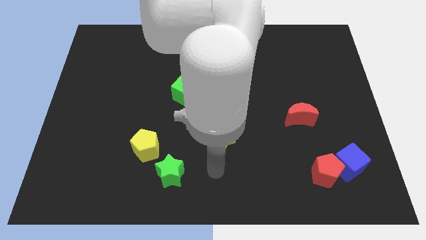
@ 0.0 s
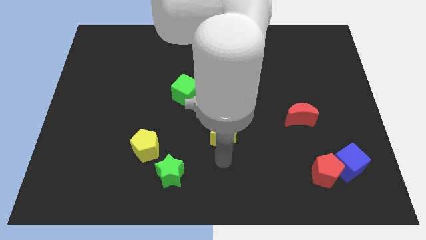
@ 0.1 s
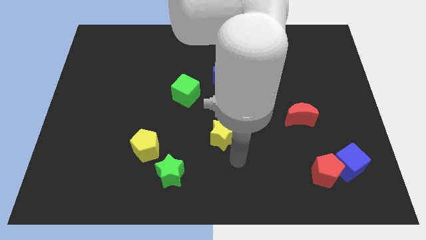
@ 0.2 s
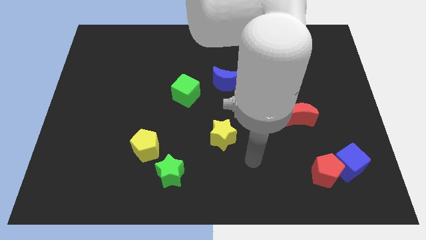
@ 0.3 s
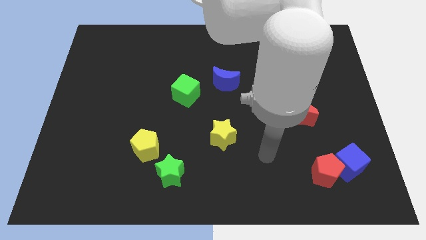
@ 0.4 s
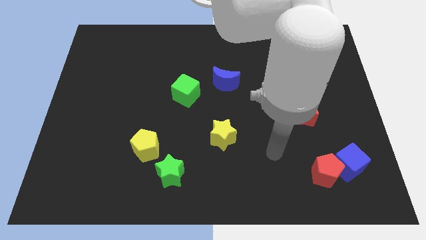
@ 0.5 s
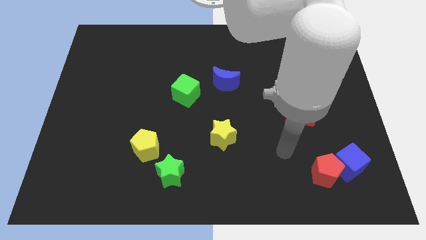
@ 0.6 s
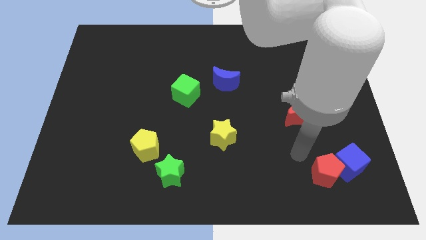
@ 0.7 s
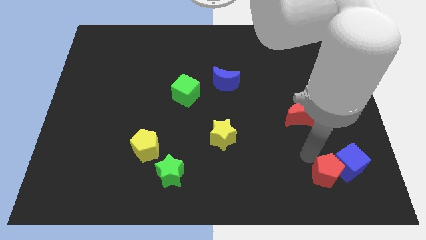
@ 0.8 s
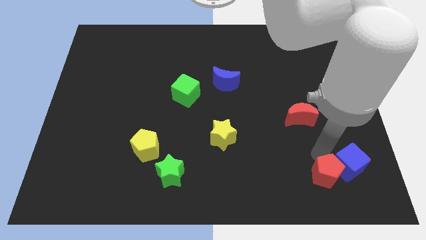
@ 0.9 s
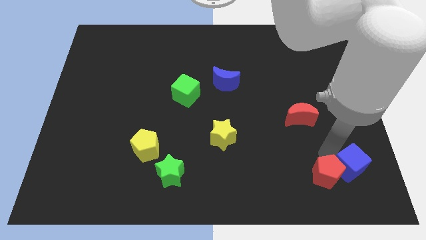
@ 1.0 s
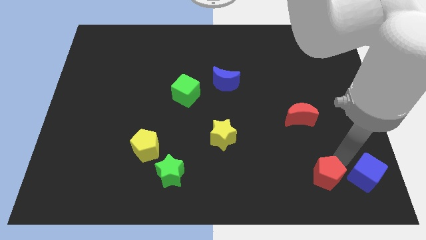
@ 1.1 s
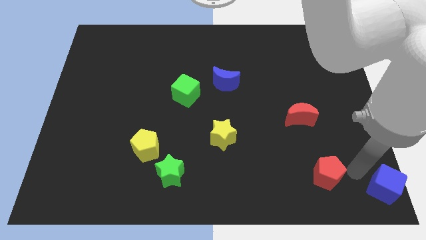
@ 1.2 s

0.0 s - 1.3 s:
separate the red pentagon from the blue cube

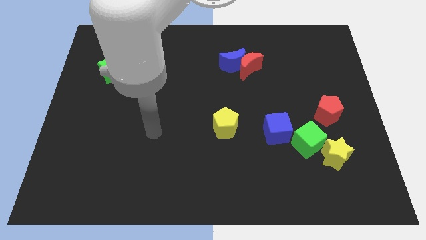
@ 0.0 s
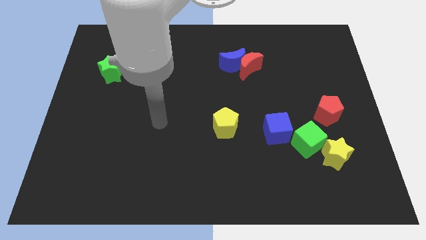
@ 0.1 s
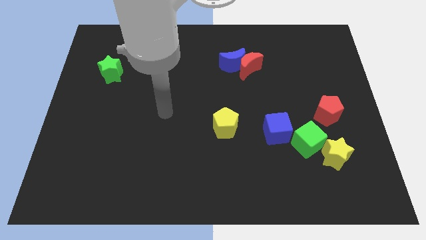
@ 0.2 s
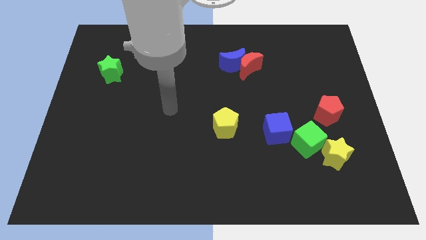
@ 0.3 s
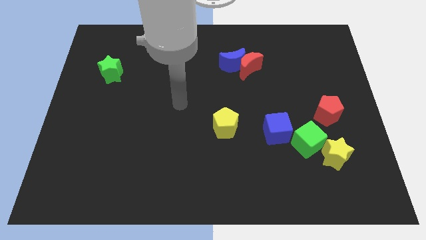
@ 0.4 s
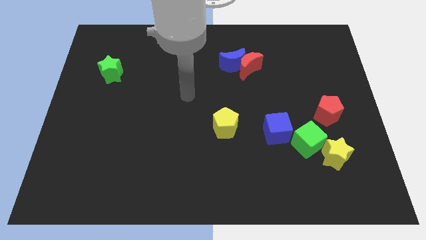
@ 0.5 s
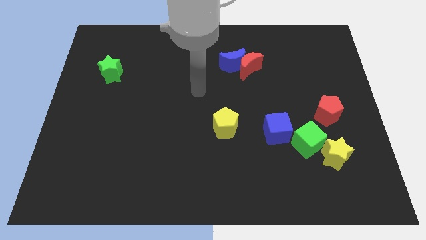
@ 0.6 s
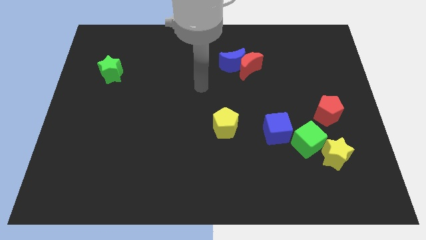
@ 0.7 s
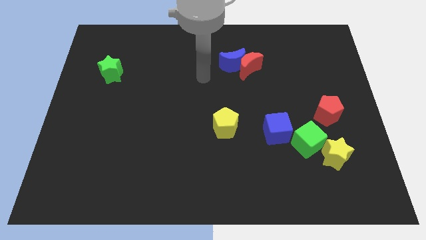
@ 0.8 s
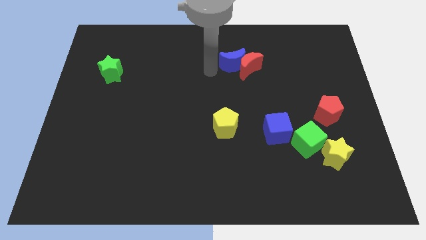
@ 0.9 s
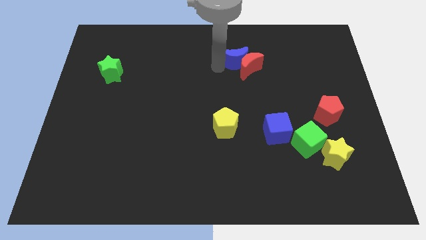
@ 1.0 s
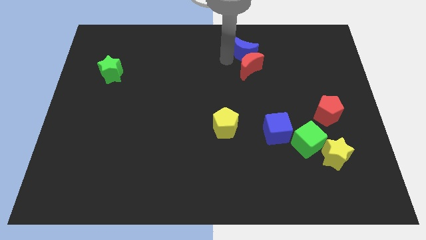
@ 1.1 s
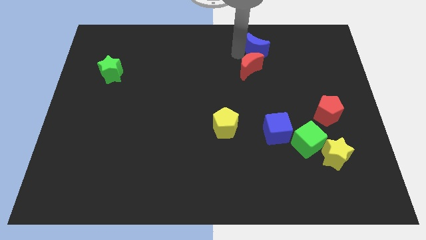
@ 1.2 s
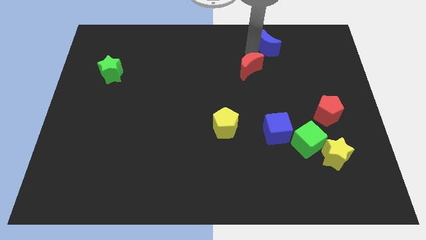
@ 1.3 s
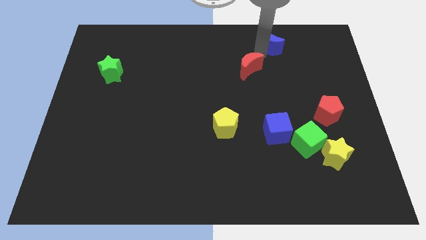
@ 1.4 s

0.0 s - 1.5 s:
move the red moon away from the blue moon

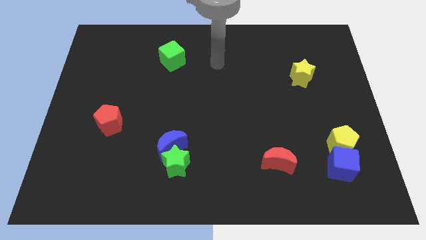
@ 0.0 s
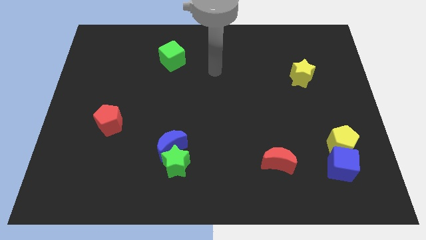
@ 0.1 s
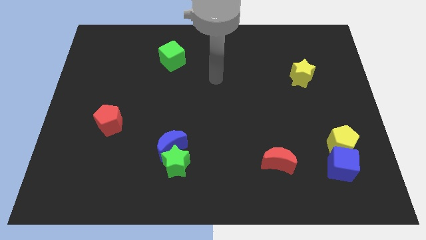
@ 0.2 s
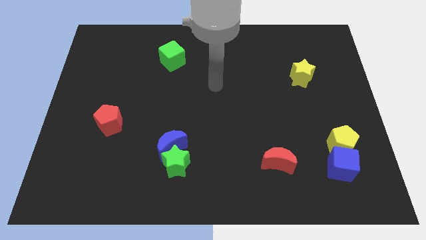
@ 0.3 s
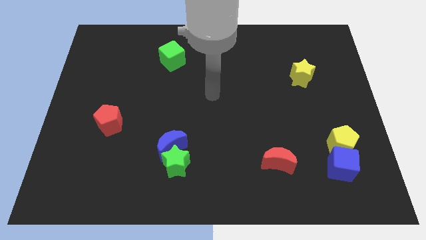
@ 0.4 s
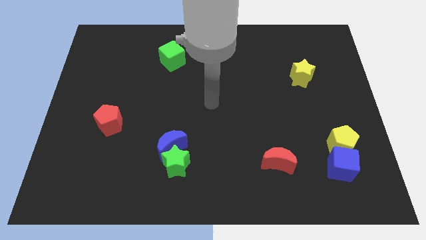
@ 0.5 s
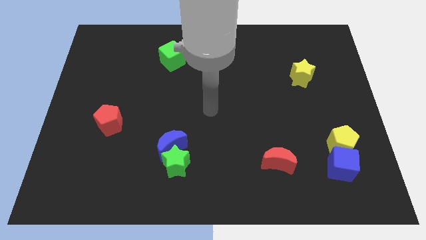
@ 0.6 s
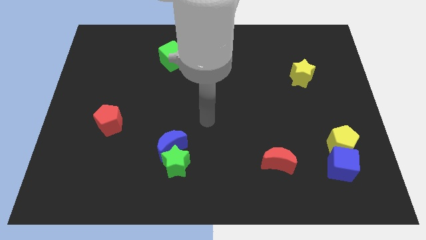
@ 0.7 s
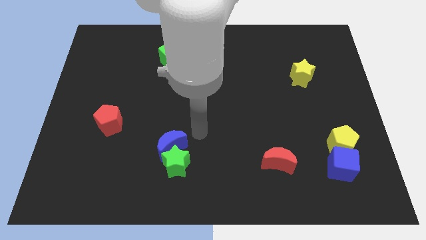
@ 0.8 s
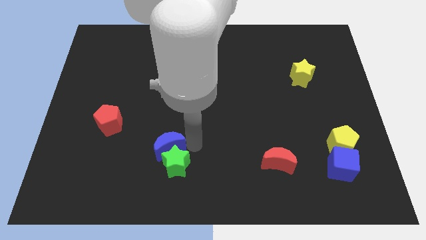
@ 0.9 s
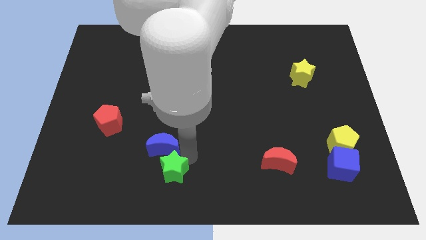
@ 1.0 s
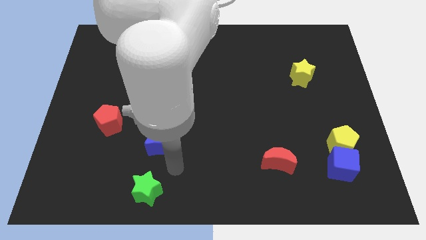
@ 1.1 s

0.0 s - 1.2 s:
pull the blue moon apart from the green star

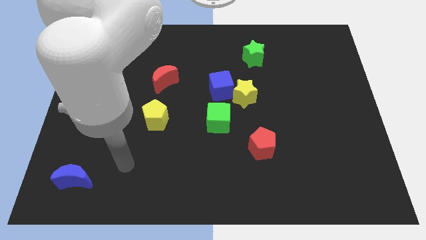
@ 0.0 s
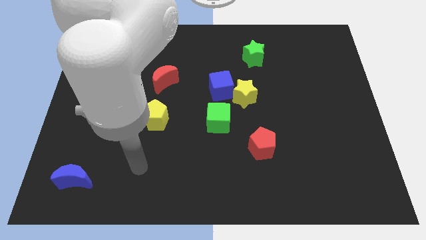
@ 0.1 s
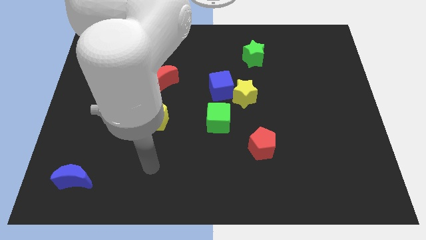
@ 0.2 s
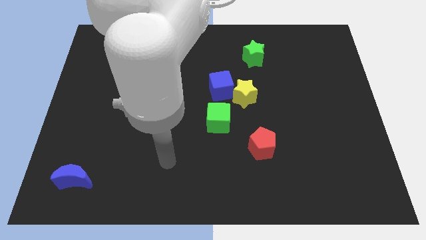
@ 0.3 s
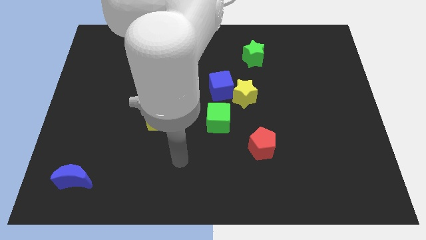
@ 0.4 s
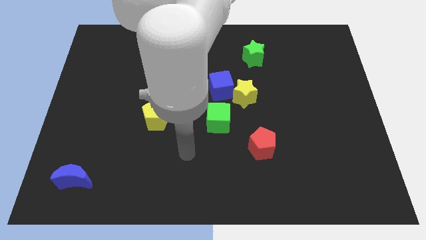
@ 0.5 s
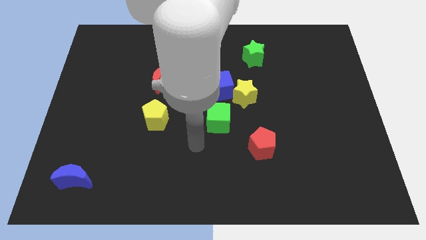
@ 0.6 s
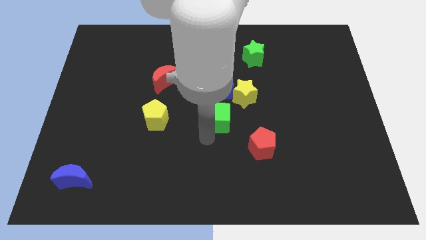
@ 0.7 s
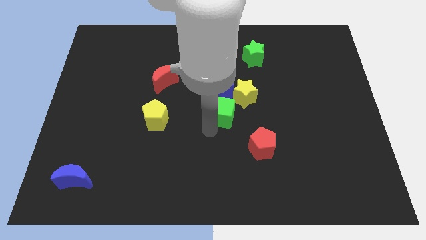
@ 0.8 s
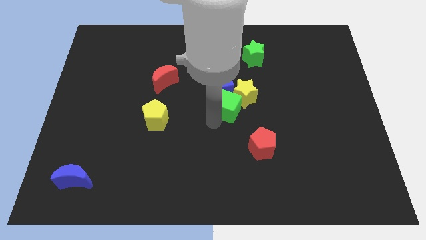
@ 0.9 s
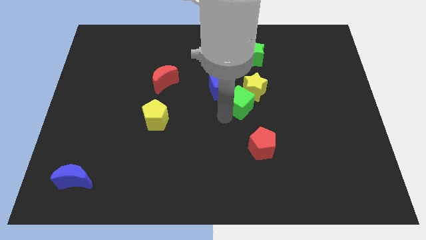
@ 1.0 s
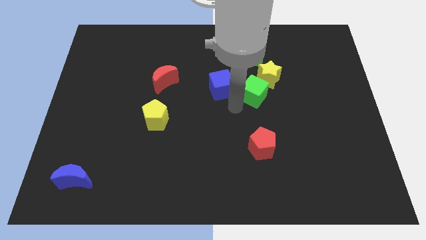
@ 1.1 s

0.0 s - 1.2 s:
separate the blue cube from the yellow star and green cube

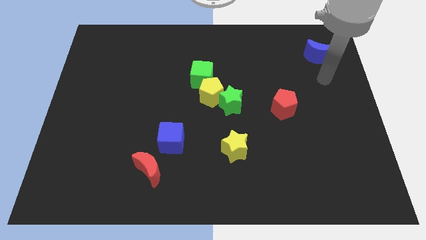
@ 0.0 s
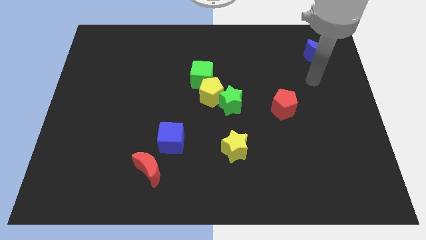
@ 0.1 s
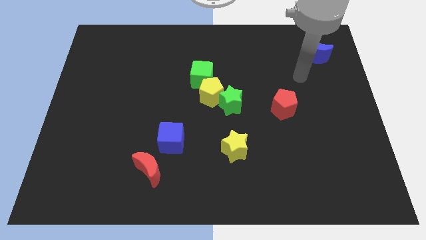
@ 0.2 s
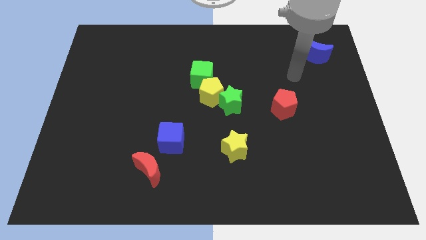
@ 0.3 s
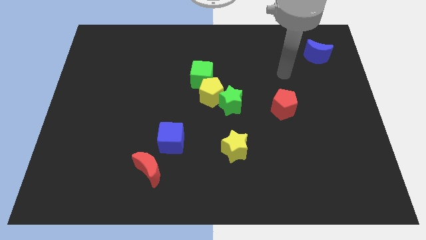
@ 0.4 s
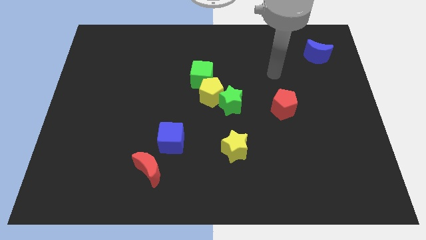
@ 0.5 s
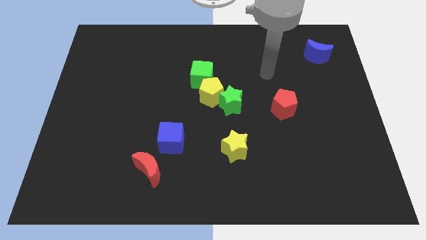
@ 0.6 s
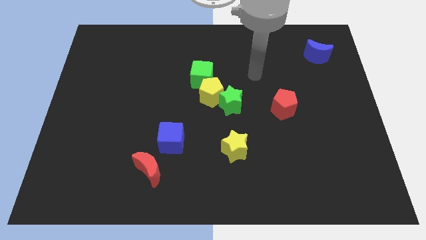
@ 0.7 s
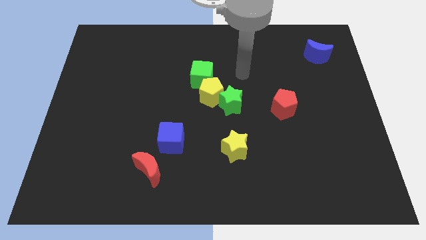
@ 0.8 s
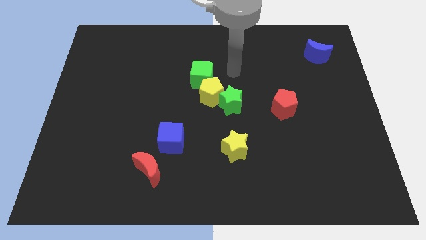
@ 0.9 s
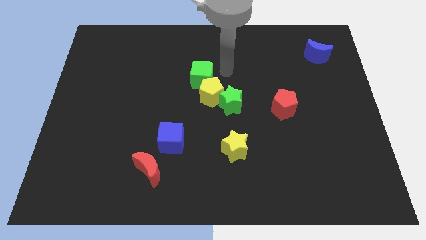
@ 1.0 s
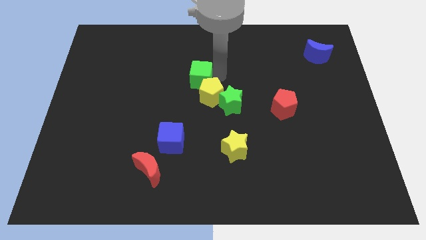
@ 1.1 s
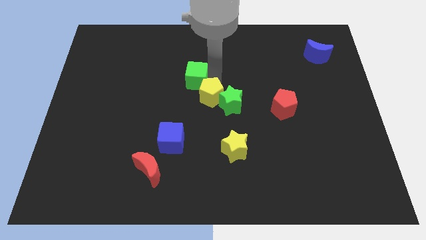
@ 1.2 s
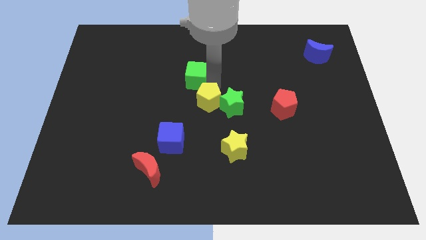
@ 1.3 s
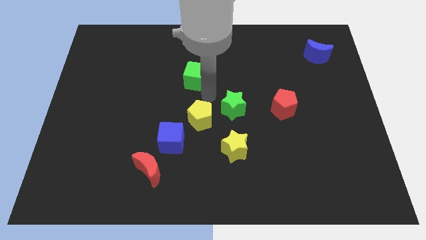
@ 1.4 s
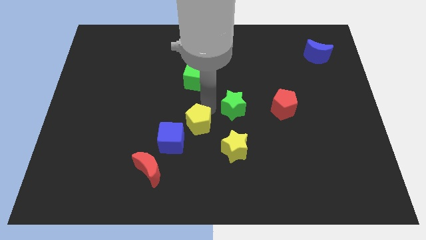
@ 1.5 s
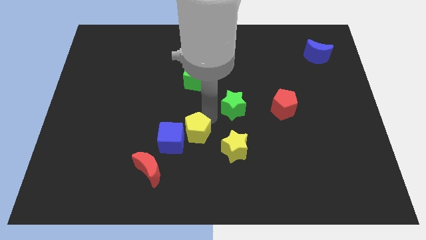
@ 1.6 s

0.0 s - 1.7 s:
pull the green star apart from the yellow pentagon

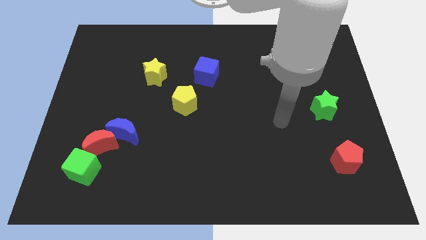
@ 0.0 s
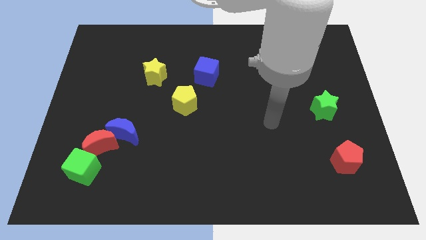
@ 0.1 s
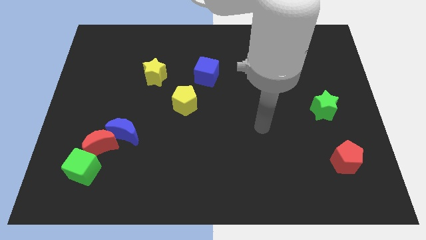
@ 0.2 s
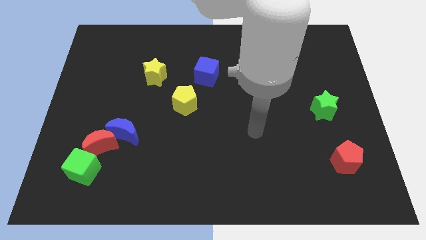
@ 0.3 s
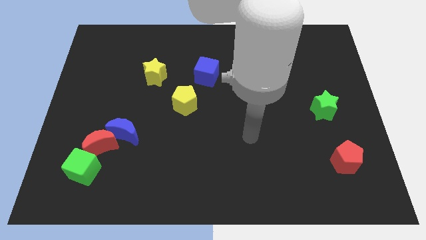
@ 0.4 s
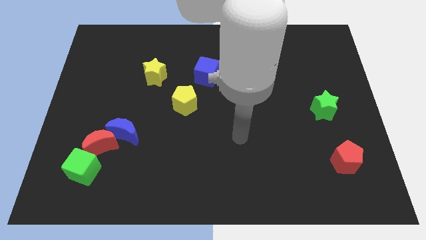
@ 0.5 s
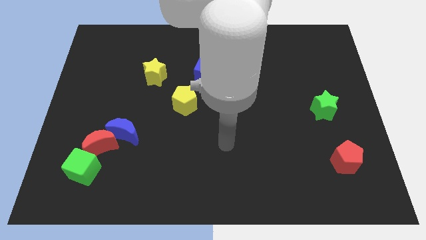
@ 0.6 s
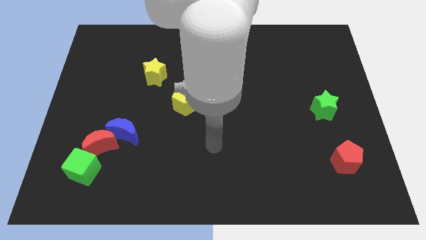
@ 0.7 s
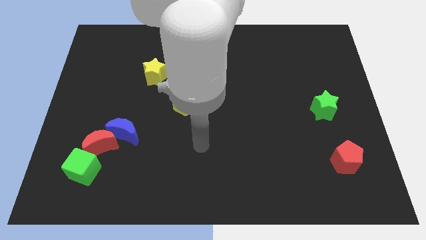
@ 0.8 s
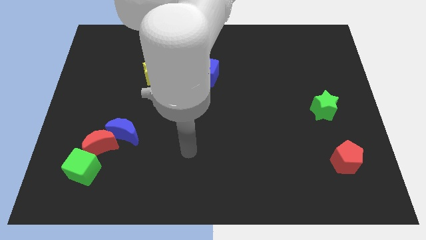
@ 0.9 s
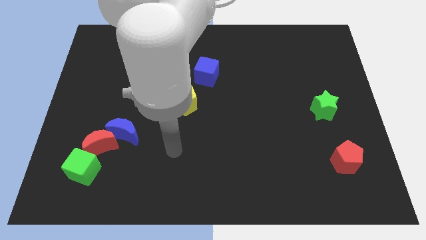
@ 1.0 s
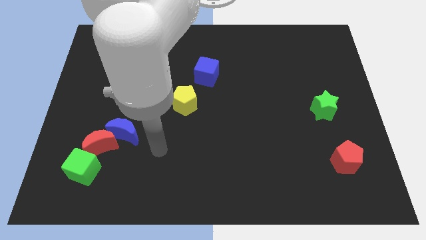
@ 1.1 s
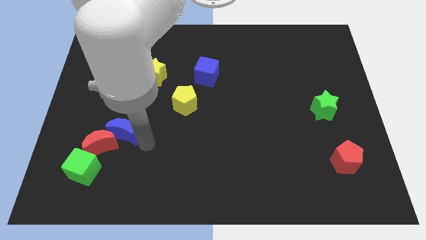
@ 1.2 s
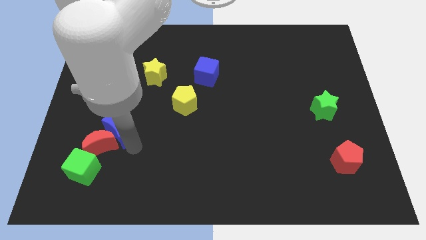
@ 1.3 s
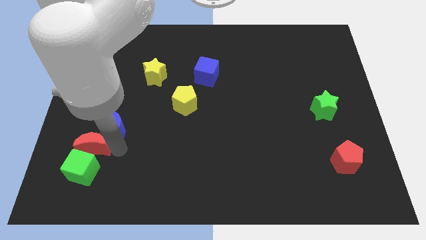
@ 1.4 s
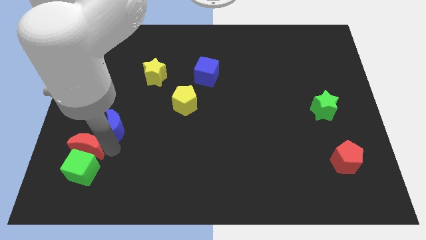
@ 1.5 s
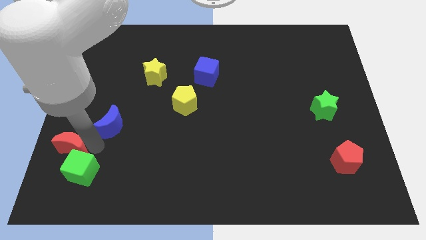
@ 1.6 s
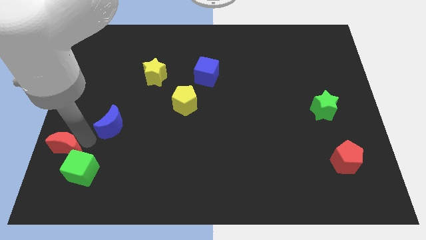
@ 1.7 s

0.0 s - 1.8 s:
separate the blue moon from the red moon

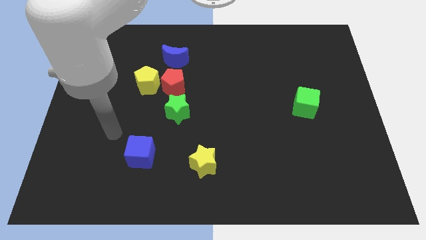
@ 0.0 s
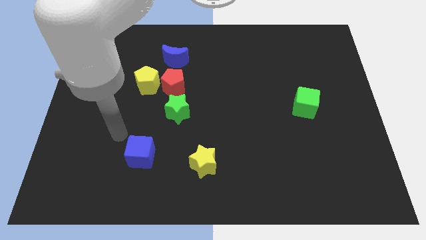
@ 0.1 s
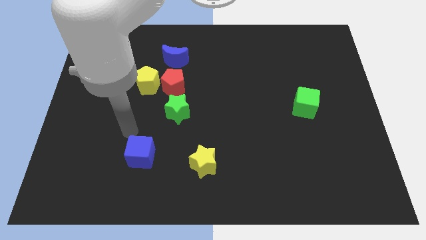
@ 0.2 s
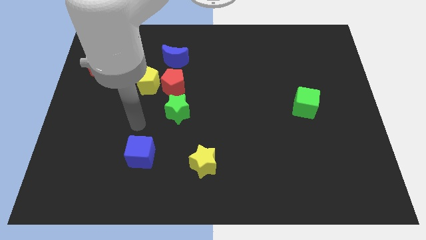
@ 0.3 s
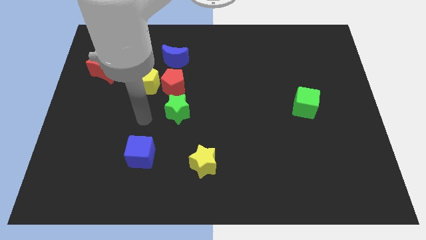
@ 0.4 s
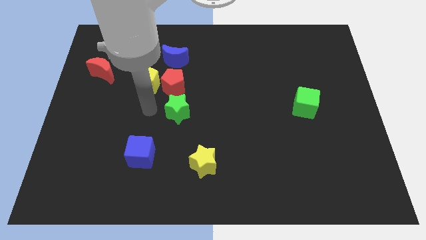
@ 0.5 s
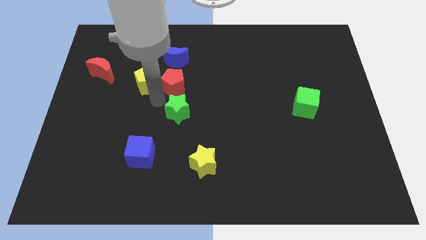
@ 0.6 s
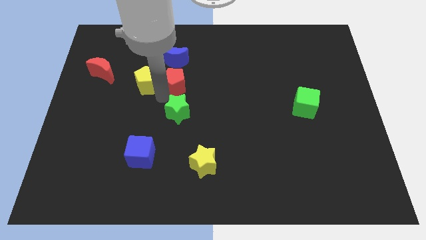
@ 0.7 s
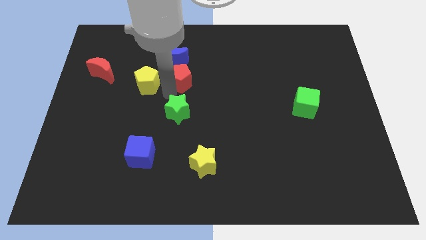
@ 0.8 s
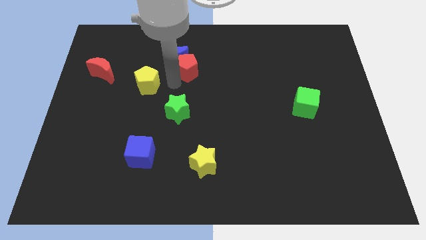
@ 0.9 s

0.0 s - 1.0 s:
separate the yellow pentagon from the red pentagon
